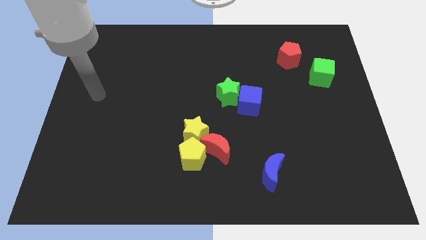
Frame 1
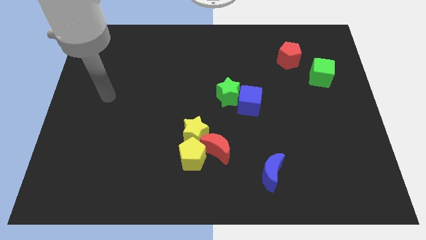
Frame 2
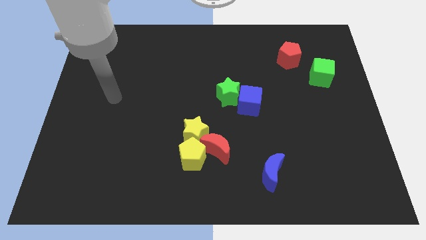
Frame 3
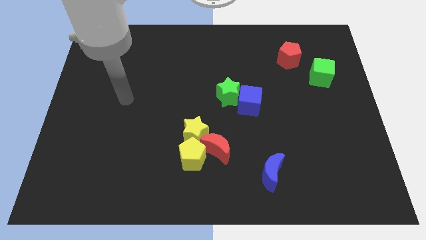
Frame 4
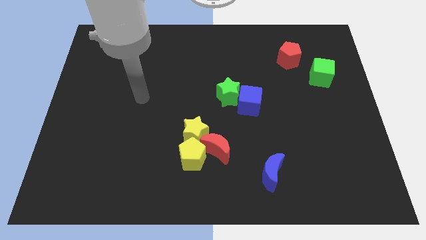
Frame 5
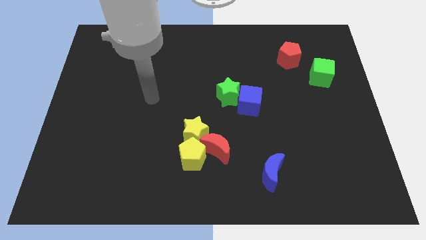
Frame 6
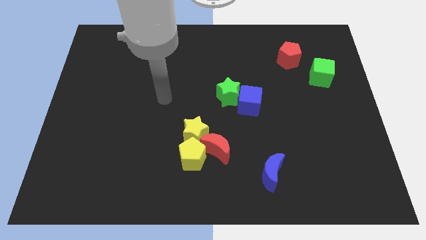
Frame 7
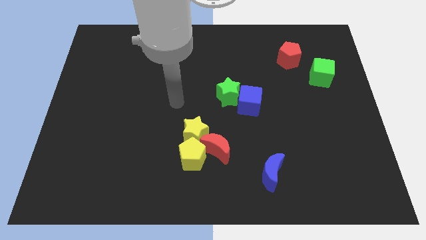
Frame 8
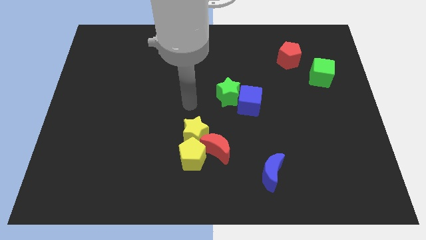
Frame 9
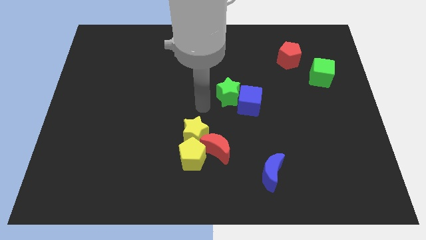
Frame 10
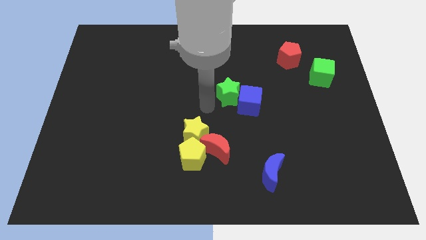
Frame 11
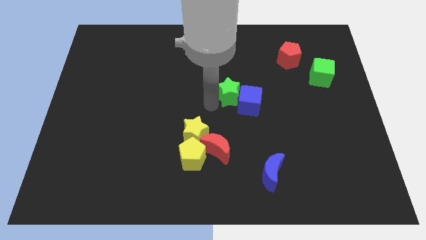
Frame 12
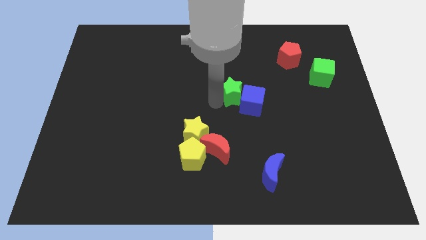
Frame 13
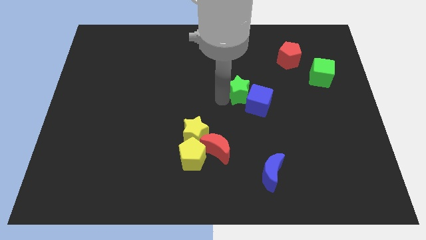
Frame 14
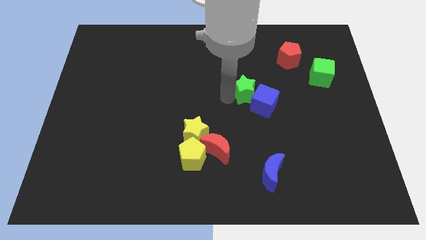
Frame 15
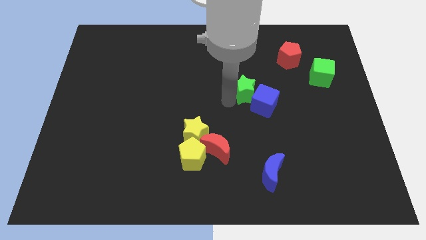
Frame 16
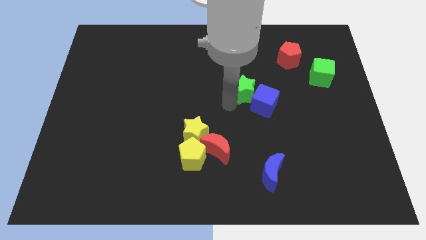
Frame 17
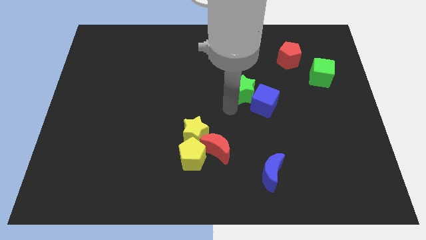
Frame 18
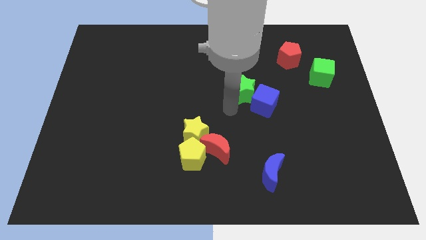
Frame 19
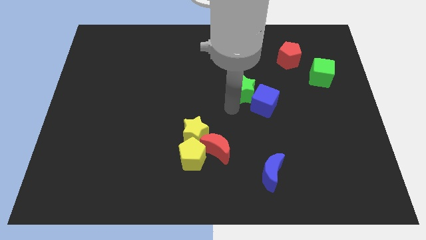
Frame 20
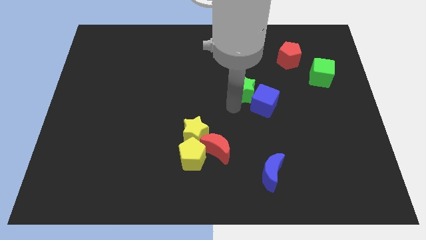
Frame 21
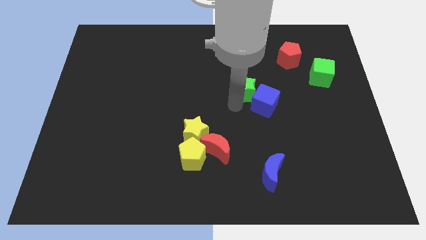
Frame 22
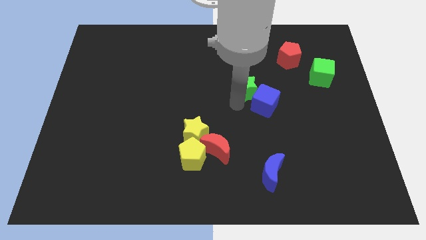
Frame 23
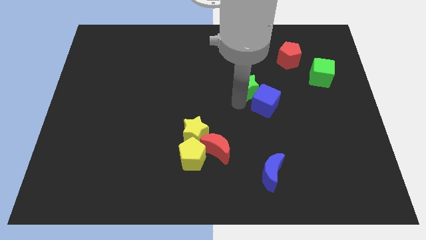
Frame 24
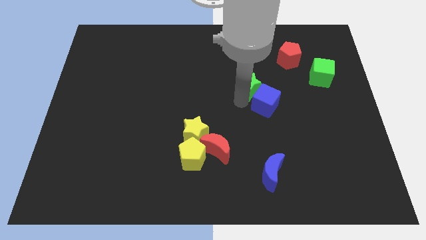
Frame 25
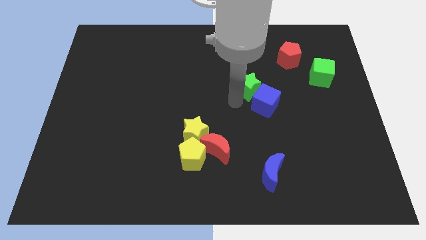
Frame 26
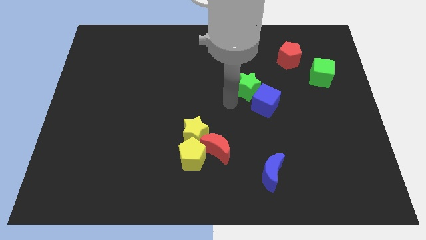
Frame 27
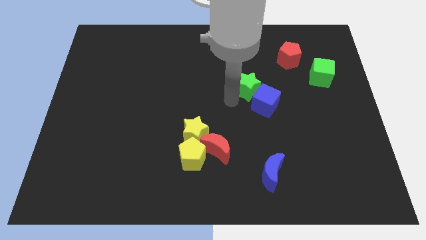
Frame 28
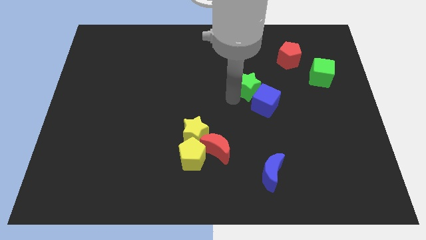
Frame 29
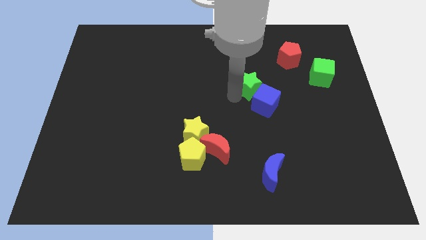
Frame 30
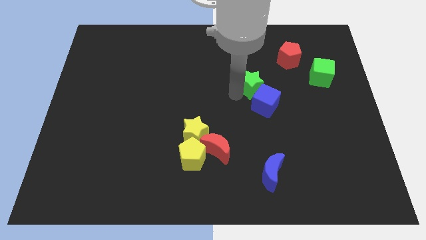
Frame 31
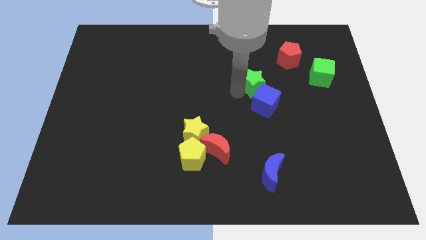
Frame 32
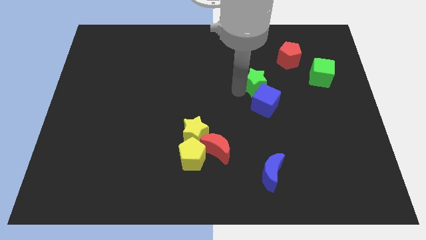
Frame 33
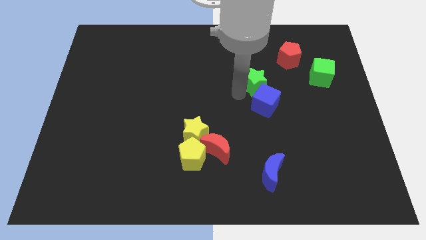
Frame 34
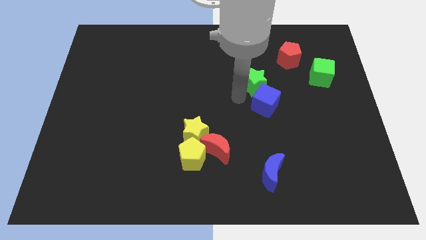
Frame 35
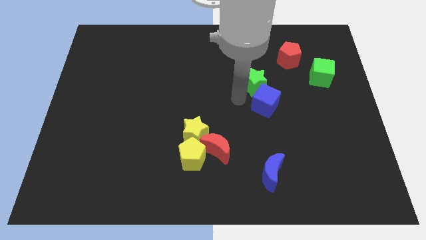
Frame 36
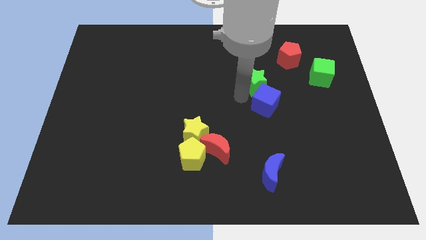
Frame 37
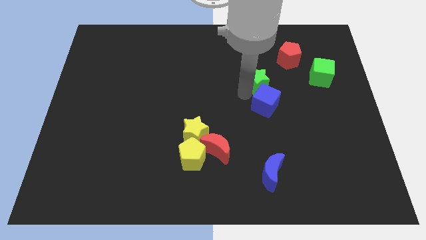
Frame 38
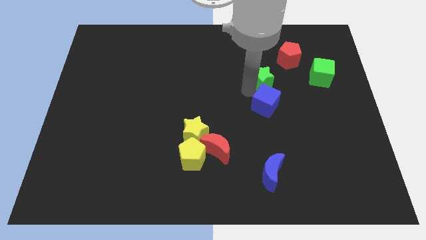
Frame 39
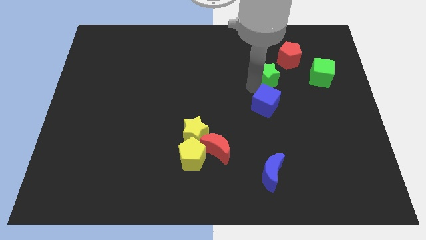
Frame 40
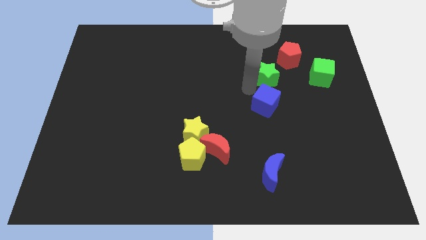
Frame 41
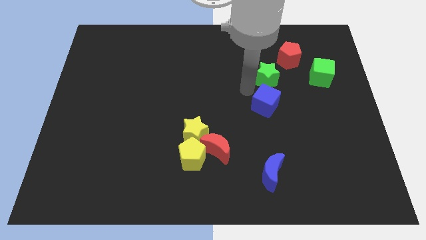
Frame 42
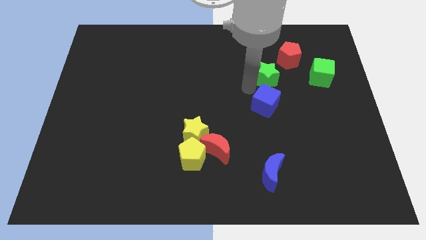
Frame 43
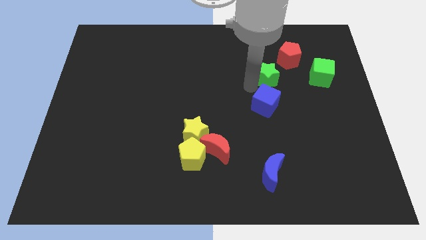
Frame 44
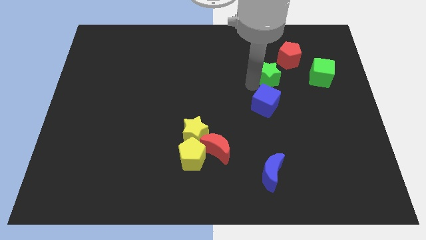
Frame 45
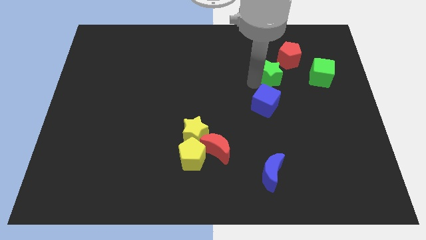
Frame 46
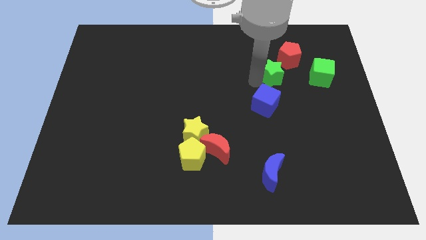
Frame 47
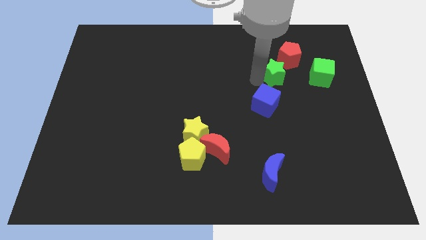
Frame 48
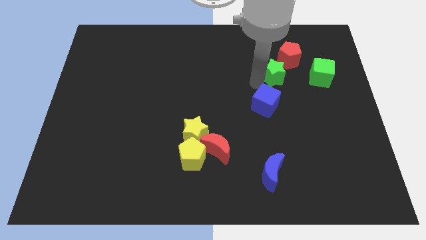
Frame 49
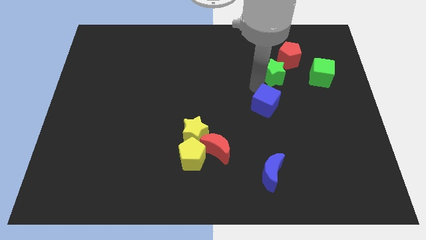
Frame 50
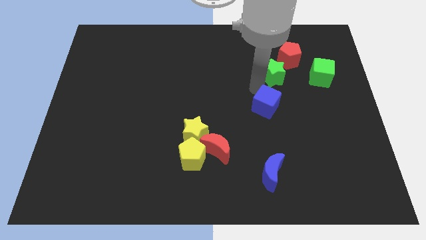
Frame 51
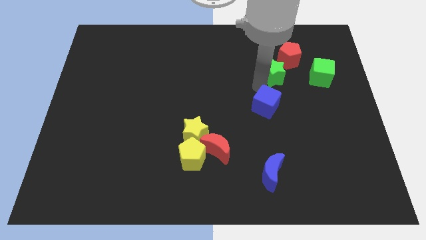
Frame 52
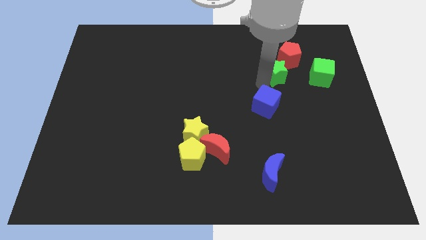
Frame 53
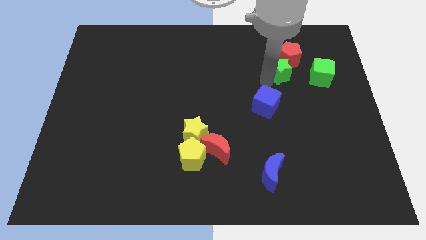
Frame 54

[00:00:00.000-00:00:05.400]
put the green star close to the red pentagon
